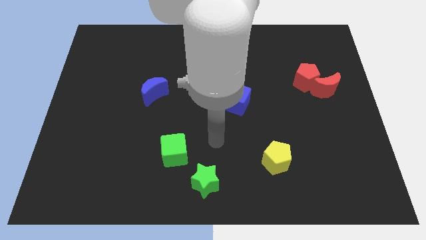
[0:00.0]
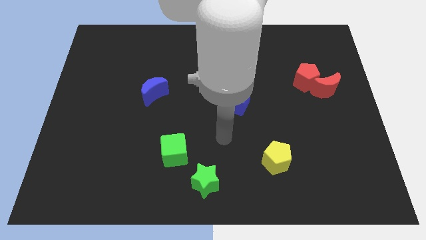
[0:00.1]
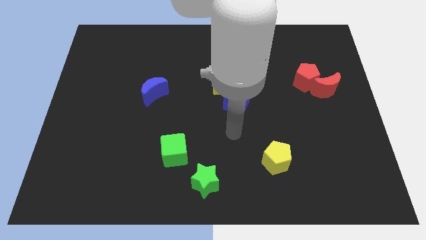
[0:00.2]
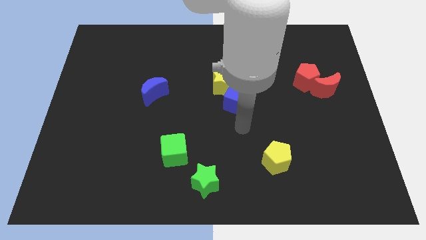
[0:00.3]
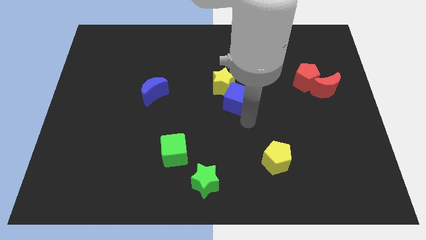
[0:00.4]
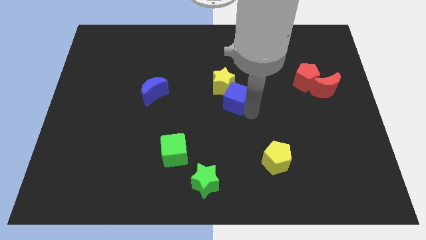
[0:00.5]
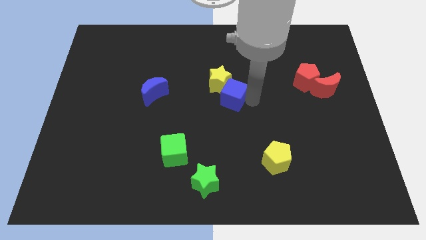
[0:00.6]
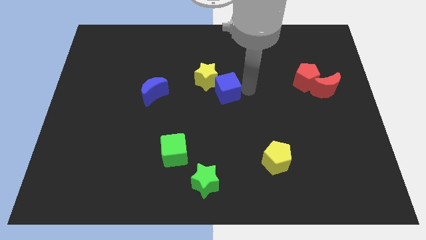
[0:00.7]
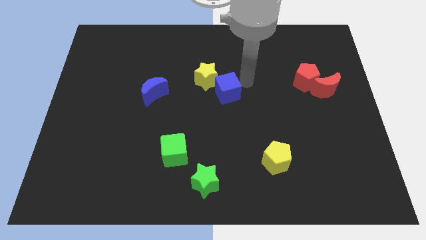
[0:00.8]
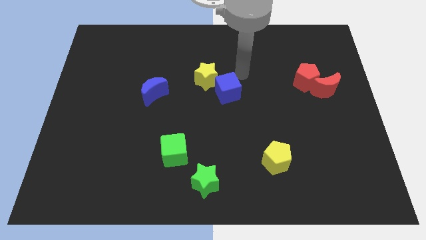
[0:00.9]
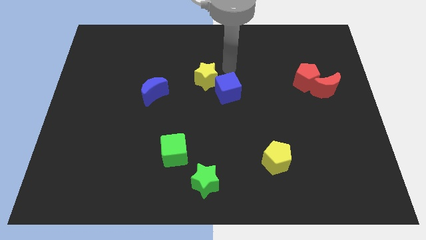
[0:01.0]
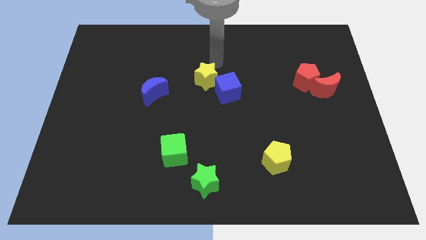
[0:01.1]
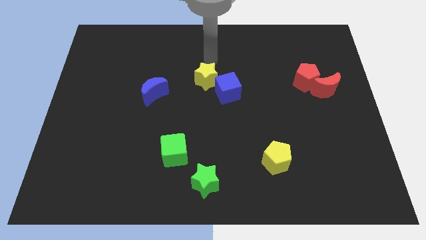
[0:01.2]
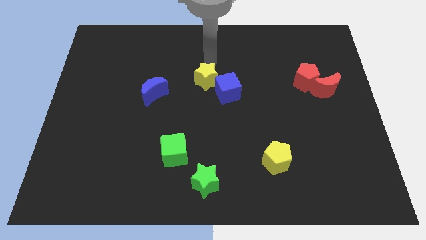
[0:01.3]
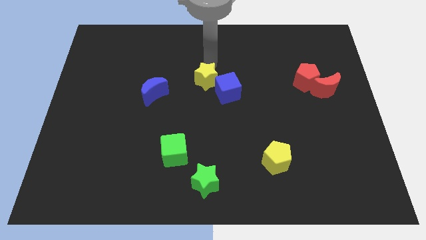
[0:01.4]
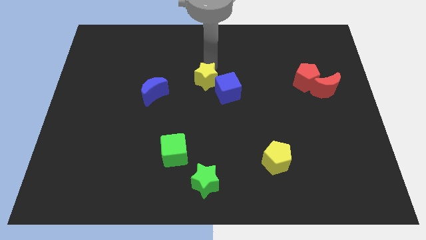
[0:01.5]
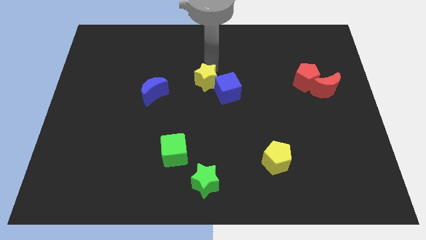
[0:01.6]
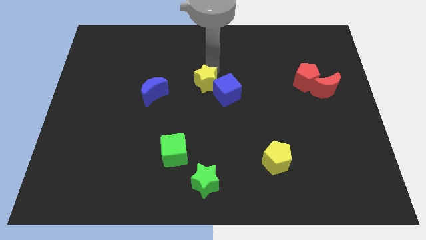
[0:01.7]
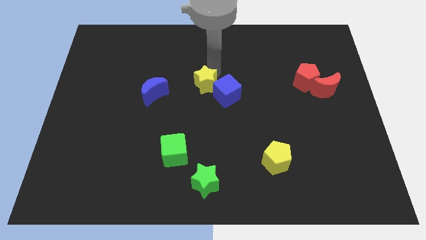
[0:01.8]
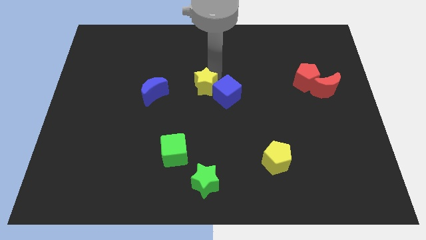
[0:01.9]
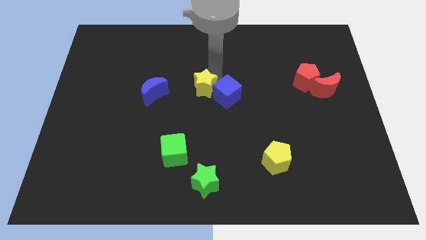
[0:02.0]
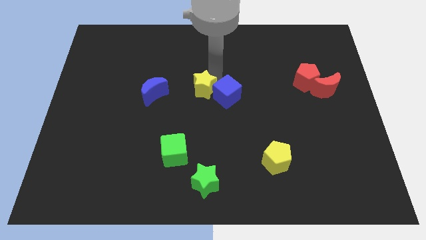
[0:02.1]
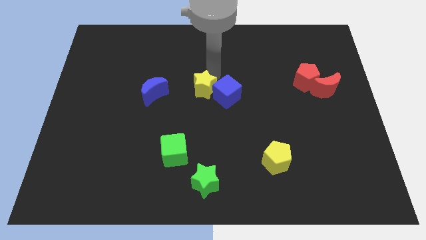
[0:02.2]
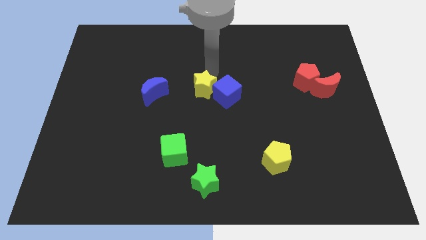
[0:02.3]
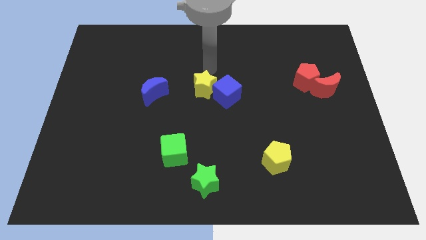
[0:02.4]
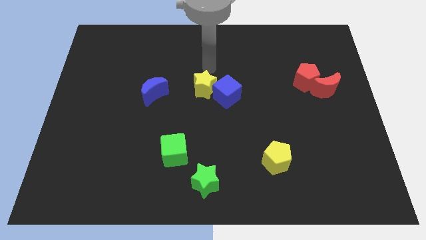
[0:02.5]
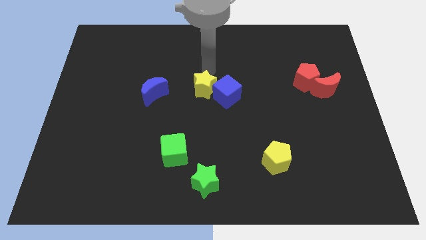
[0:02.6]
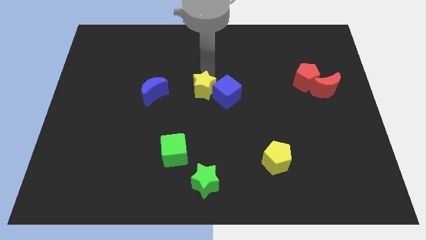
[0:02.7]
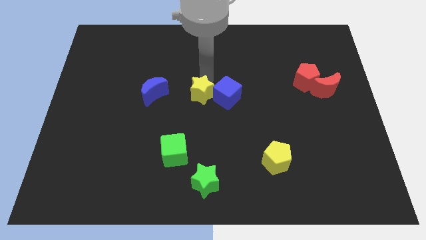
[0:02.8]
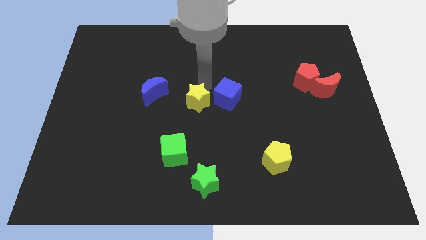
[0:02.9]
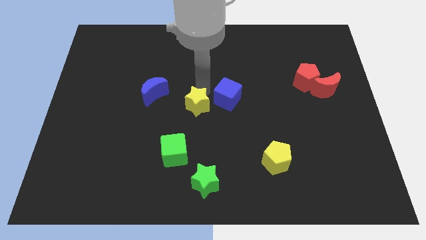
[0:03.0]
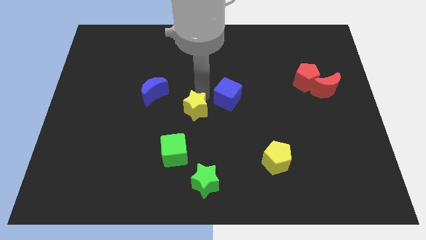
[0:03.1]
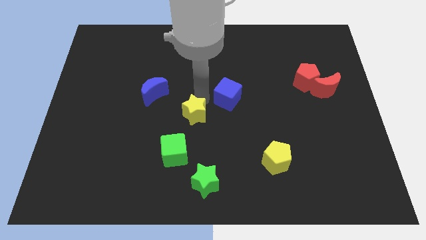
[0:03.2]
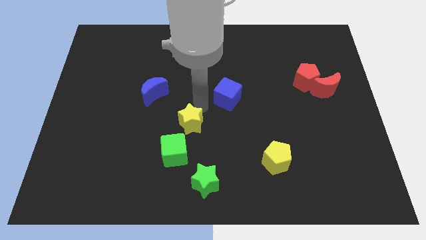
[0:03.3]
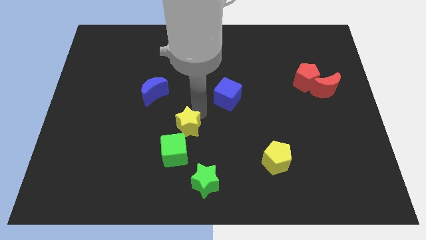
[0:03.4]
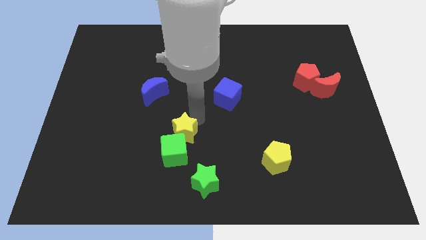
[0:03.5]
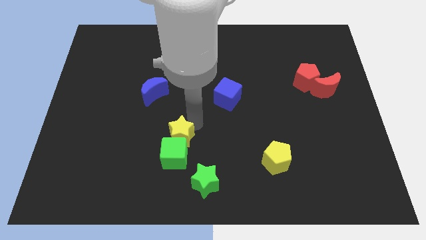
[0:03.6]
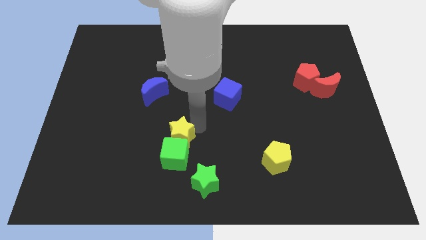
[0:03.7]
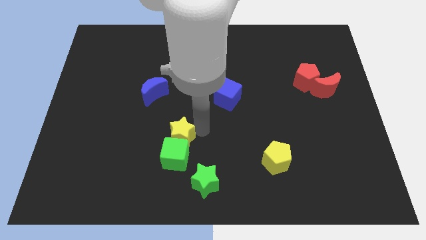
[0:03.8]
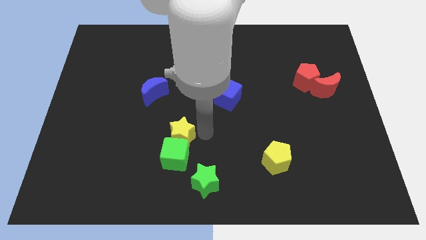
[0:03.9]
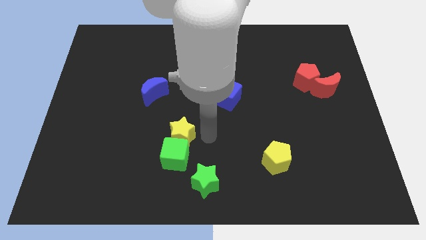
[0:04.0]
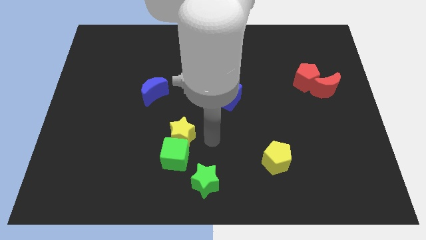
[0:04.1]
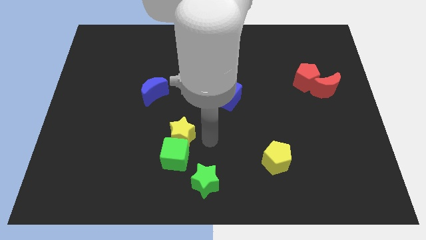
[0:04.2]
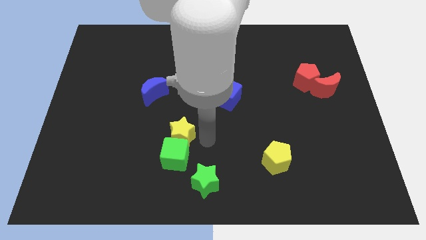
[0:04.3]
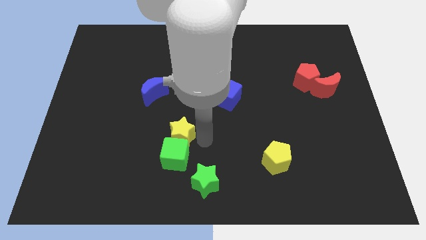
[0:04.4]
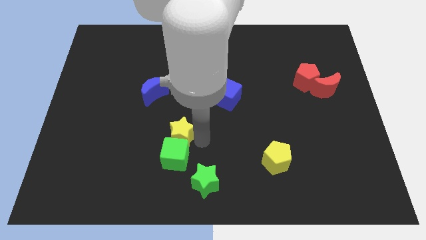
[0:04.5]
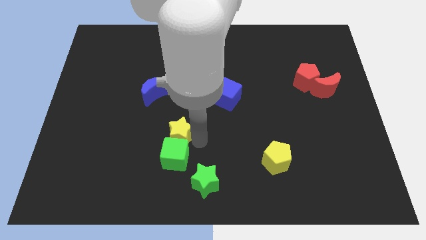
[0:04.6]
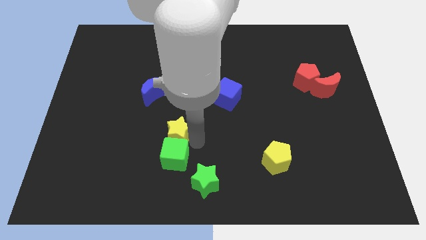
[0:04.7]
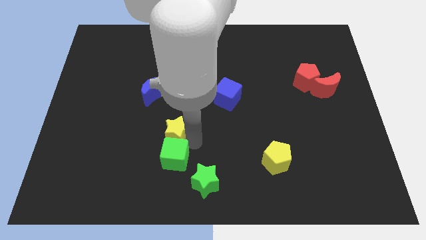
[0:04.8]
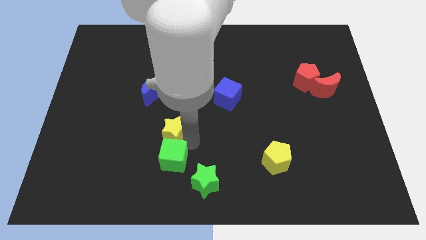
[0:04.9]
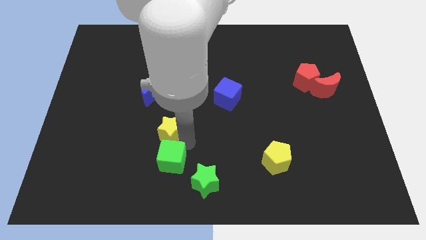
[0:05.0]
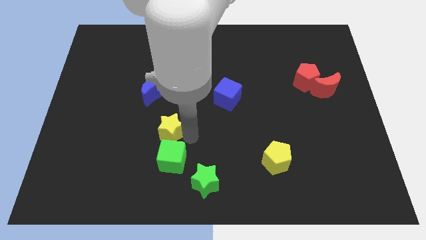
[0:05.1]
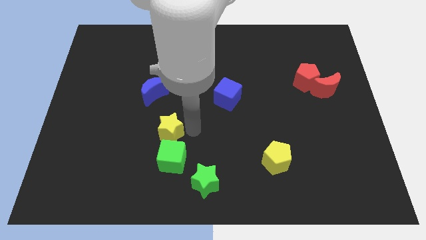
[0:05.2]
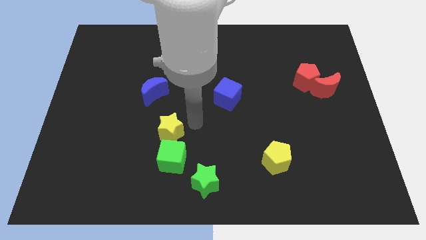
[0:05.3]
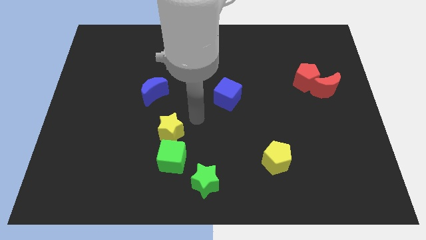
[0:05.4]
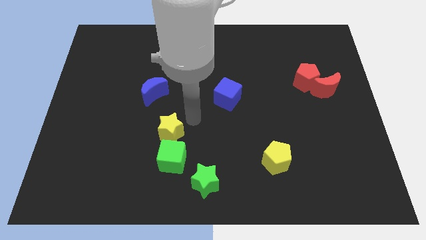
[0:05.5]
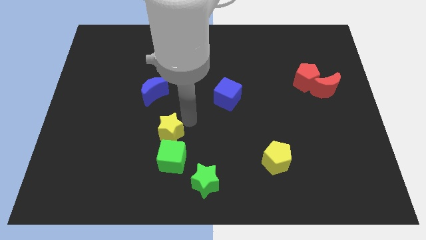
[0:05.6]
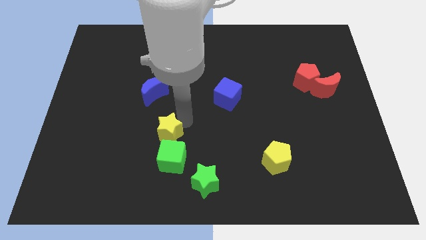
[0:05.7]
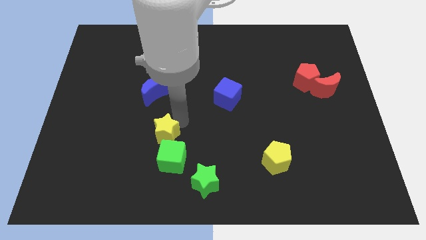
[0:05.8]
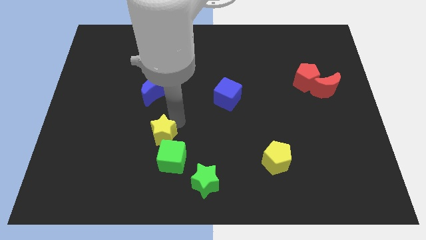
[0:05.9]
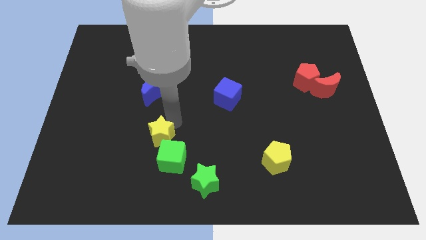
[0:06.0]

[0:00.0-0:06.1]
move the yellow star diagonally down and left

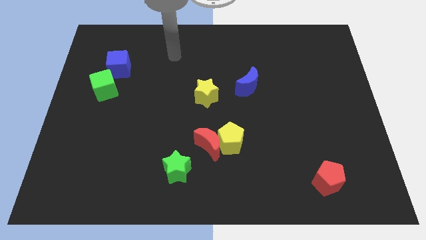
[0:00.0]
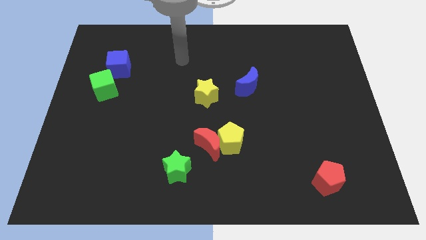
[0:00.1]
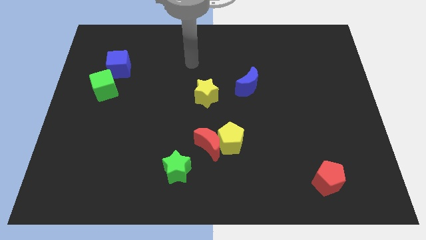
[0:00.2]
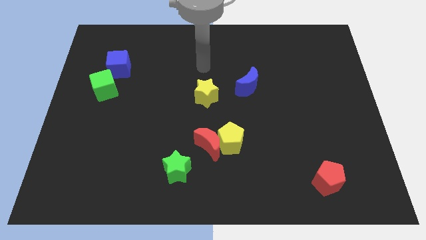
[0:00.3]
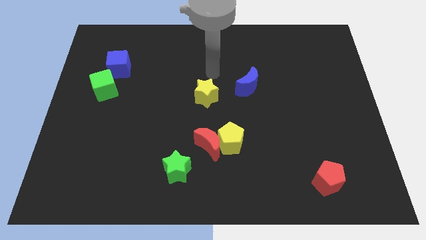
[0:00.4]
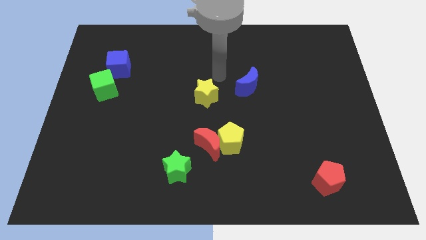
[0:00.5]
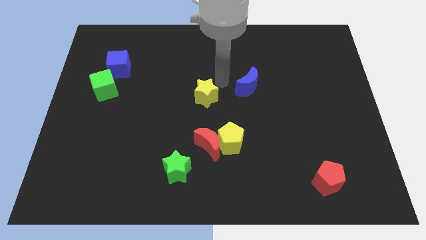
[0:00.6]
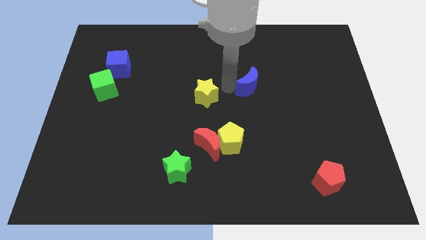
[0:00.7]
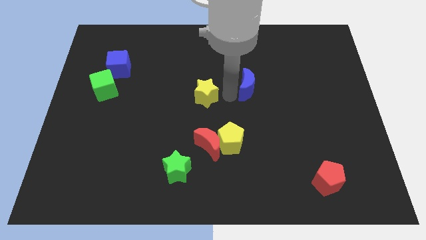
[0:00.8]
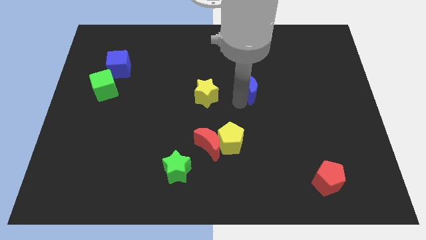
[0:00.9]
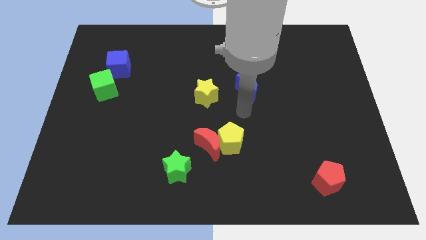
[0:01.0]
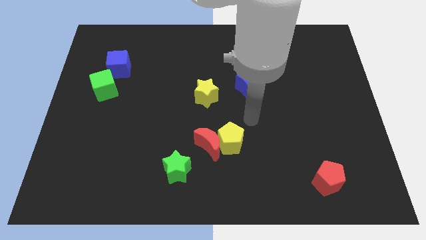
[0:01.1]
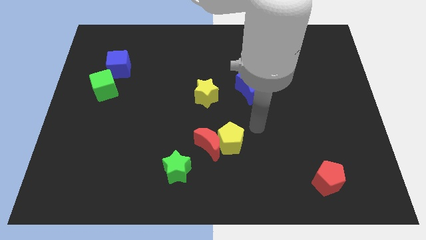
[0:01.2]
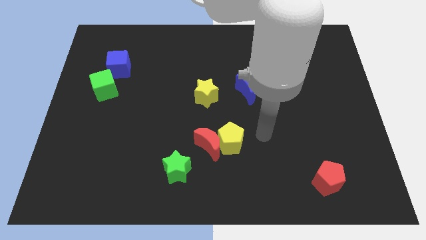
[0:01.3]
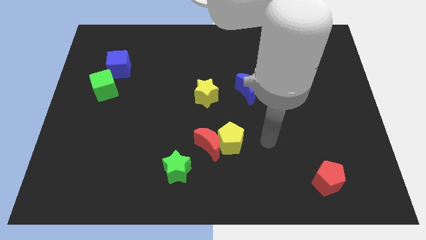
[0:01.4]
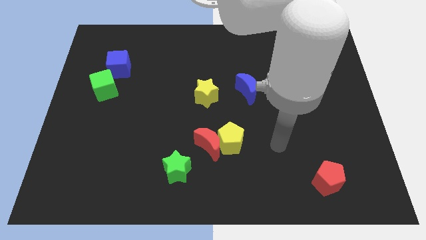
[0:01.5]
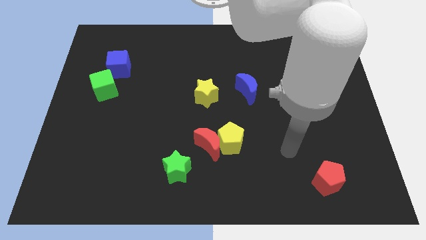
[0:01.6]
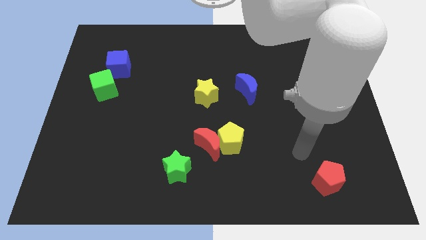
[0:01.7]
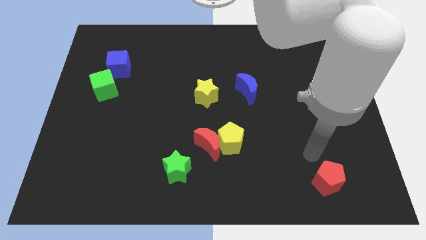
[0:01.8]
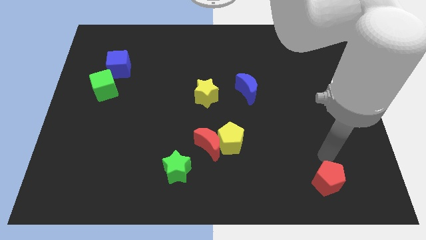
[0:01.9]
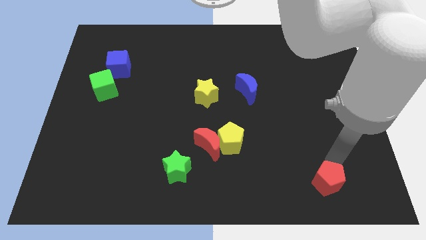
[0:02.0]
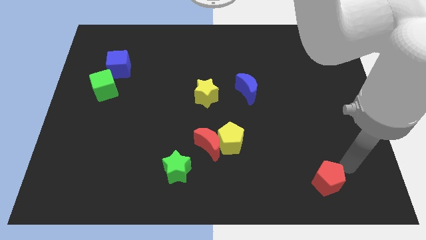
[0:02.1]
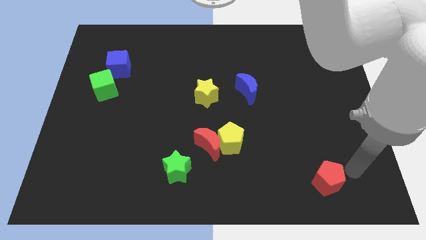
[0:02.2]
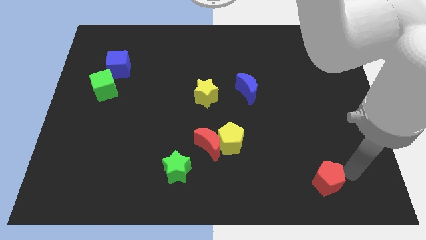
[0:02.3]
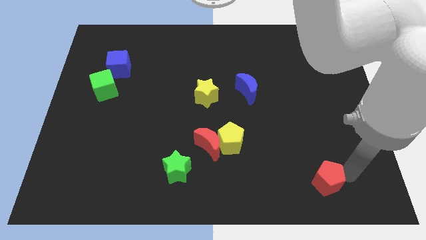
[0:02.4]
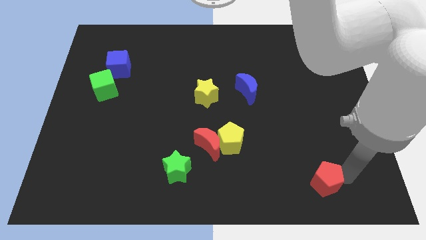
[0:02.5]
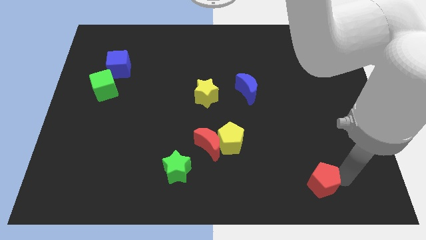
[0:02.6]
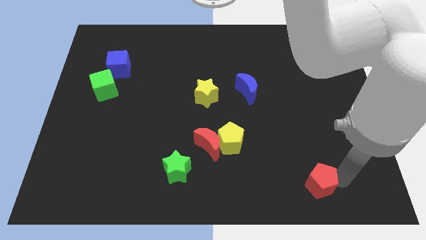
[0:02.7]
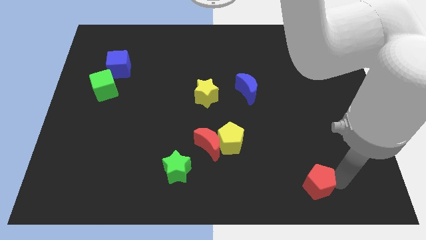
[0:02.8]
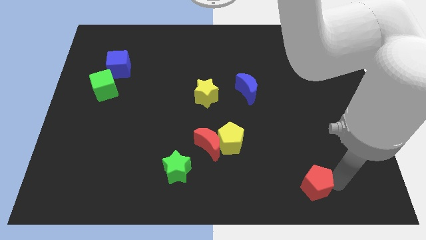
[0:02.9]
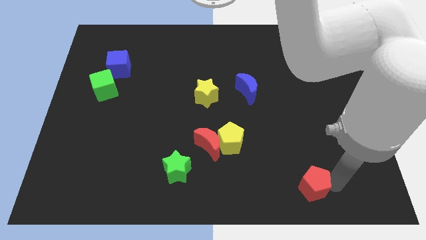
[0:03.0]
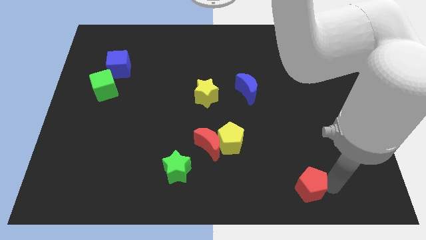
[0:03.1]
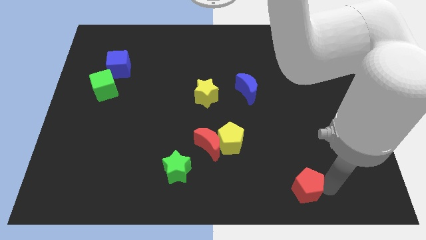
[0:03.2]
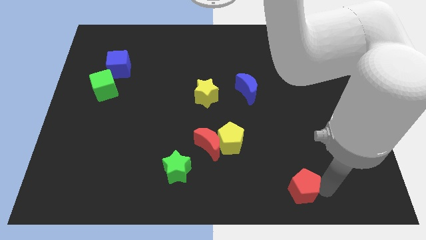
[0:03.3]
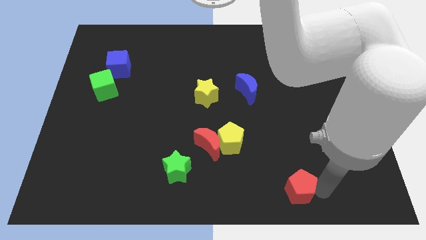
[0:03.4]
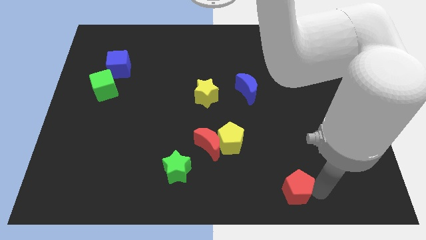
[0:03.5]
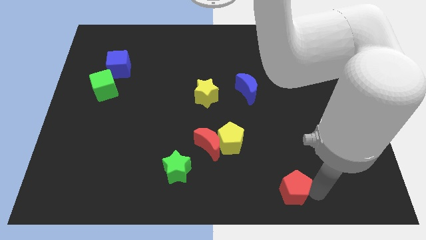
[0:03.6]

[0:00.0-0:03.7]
slightly slide the red pentagon to the left
